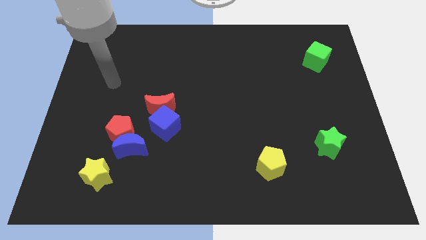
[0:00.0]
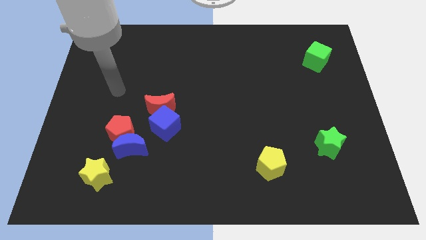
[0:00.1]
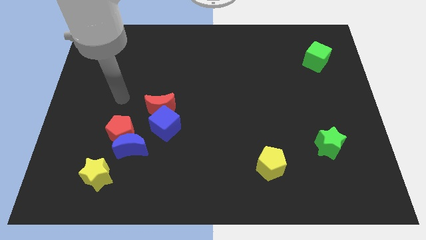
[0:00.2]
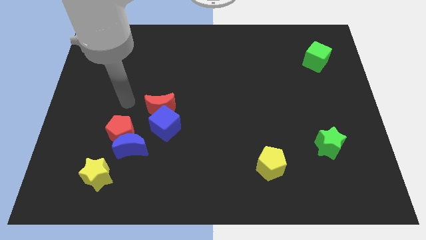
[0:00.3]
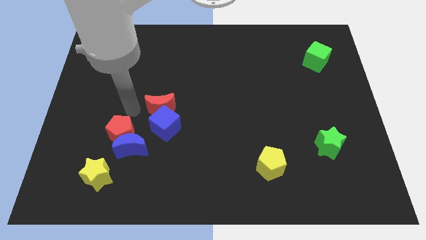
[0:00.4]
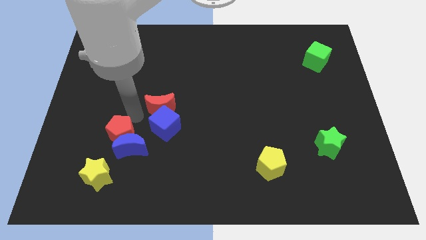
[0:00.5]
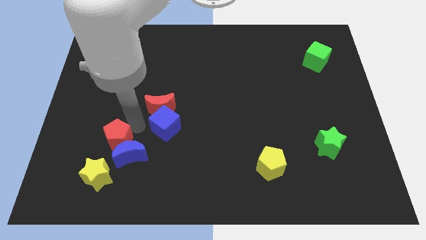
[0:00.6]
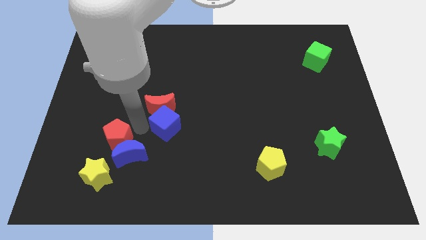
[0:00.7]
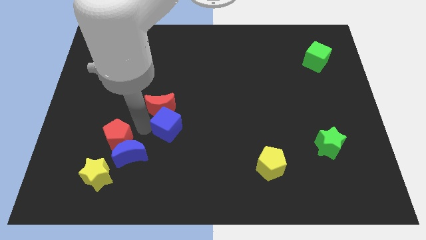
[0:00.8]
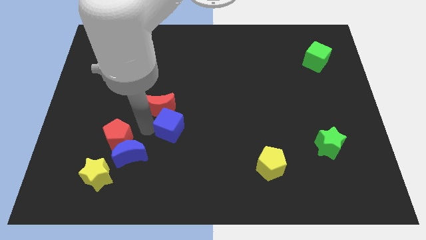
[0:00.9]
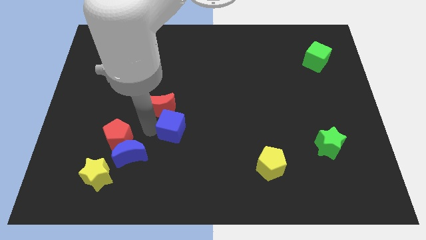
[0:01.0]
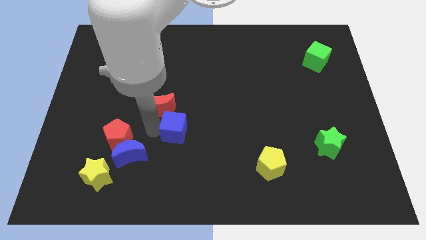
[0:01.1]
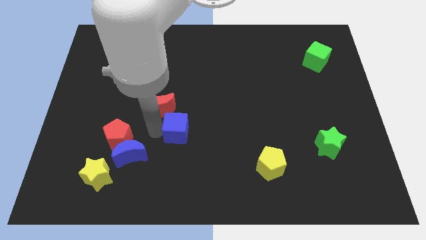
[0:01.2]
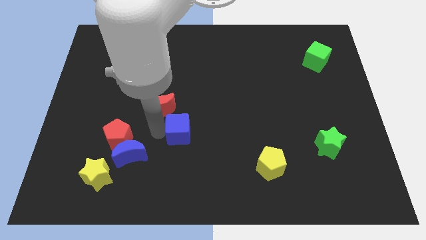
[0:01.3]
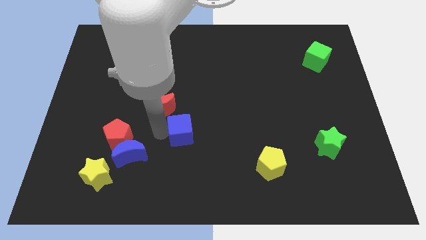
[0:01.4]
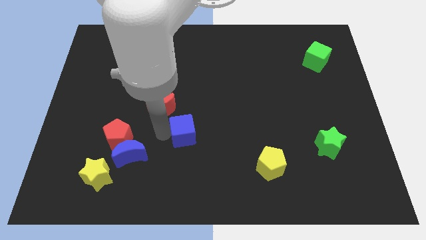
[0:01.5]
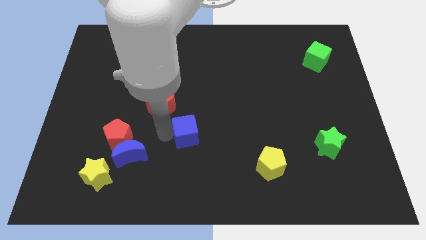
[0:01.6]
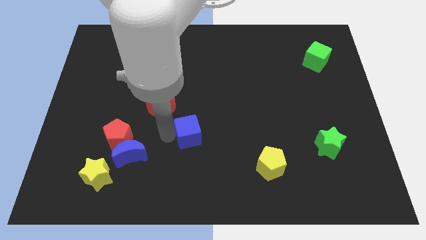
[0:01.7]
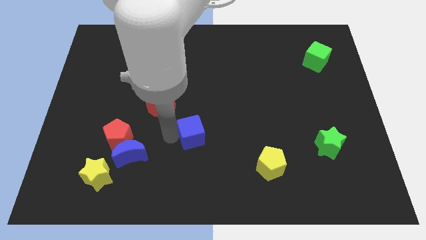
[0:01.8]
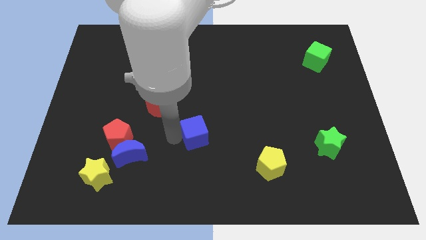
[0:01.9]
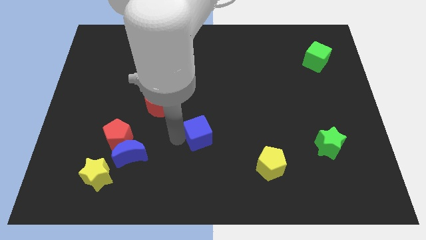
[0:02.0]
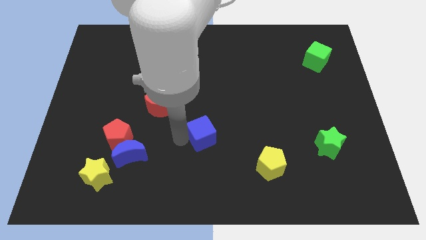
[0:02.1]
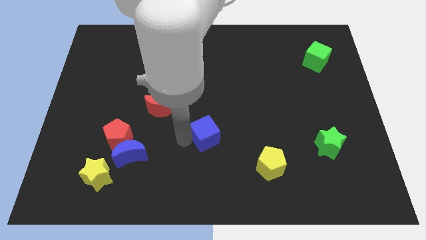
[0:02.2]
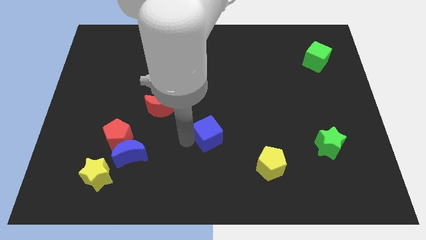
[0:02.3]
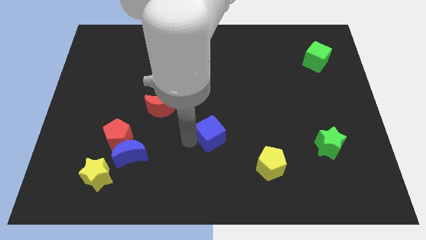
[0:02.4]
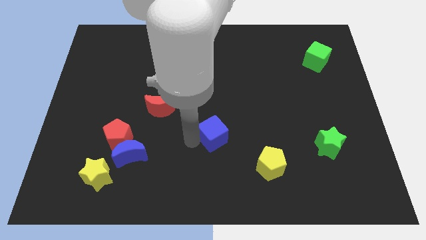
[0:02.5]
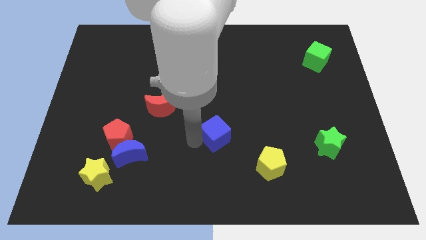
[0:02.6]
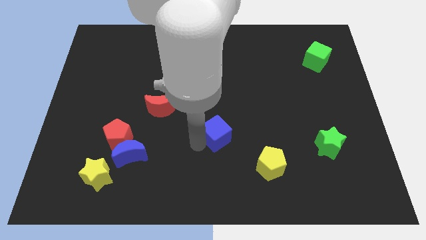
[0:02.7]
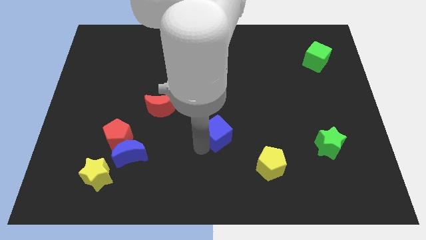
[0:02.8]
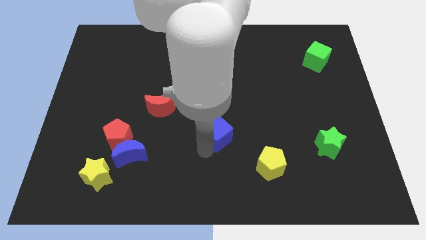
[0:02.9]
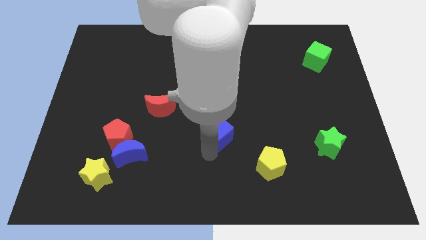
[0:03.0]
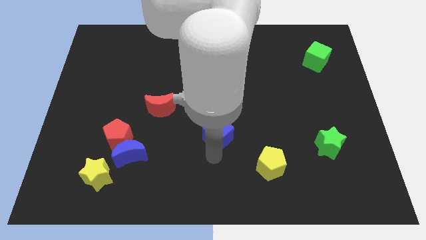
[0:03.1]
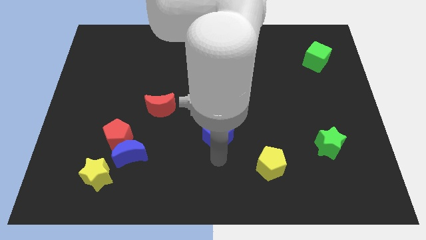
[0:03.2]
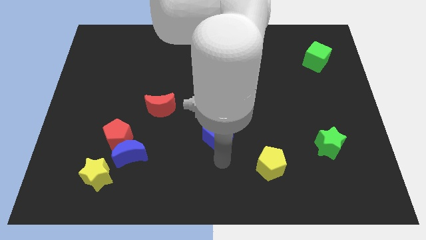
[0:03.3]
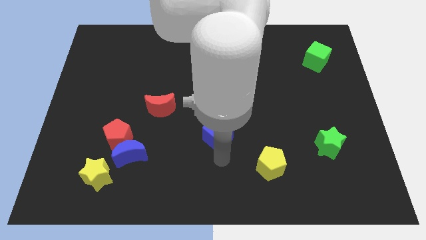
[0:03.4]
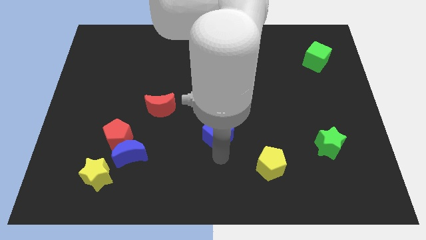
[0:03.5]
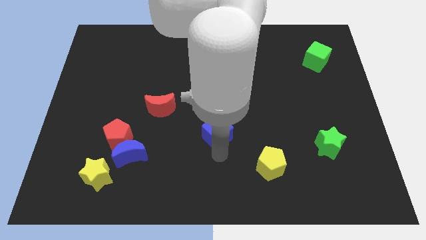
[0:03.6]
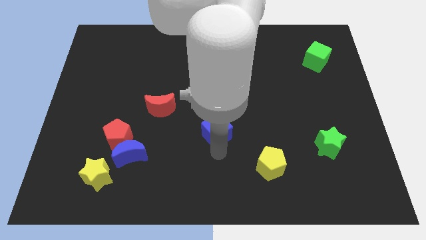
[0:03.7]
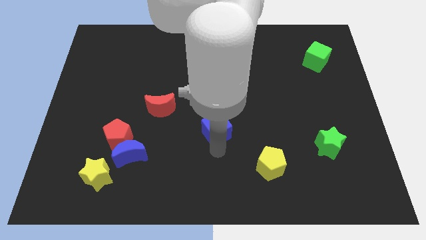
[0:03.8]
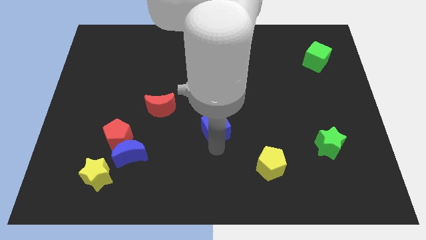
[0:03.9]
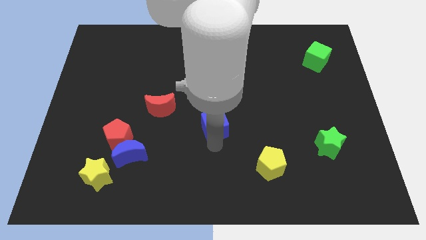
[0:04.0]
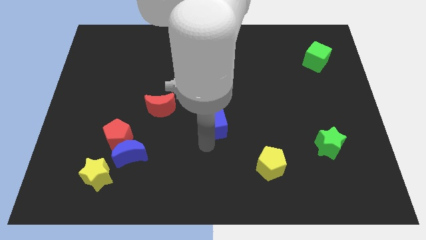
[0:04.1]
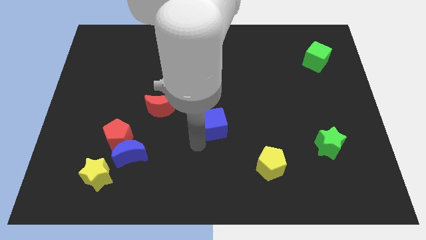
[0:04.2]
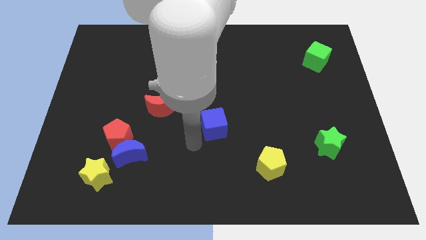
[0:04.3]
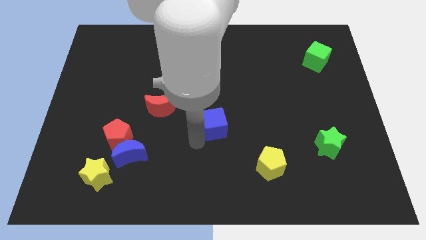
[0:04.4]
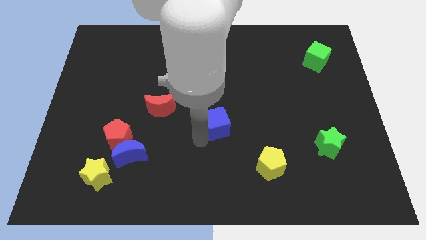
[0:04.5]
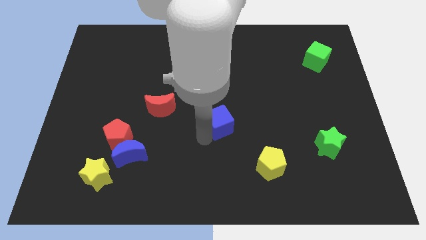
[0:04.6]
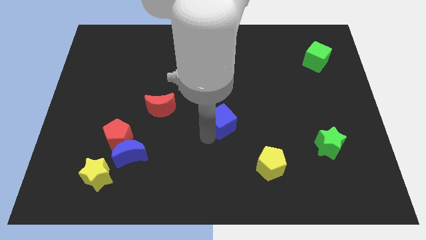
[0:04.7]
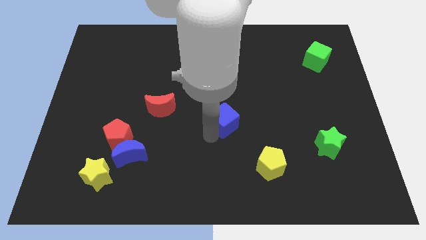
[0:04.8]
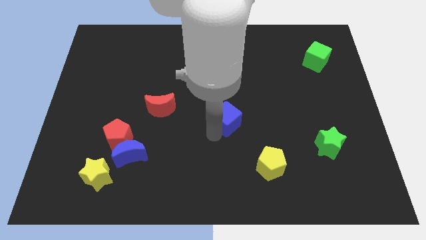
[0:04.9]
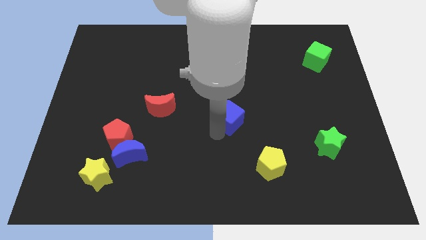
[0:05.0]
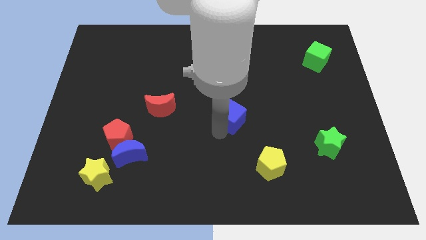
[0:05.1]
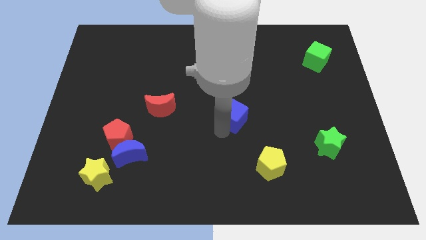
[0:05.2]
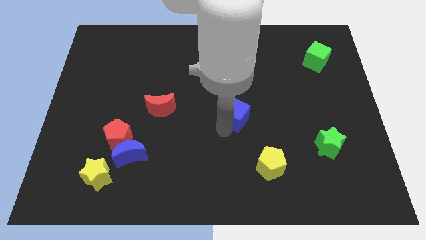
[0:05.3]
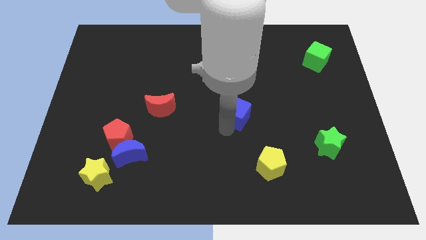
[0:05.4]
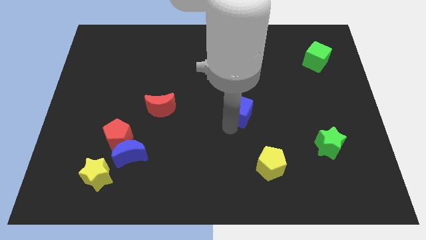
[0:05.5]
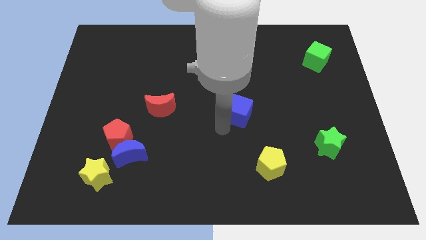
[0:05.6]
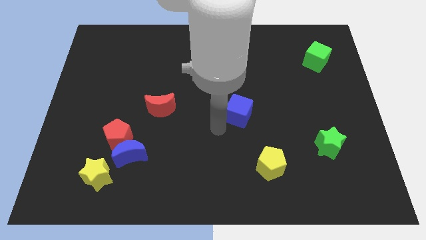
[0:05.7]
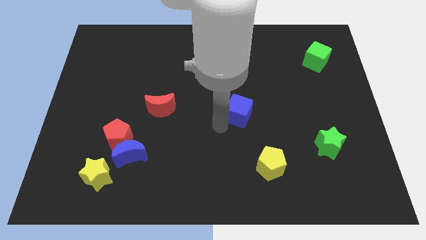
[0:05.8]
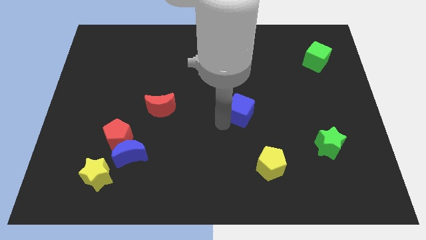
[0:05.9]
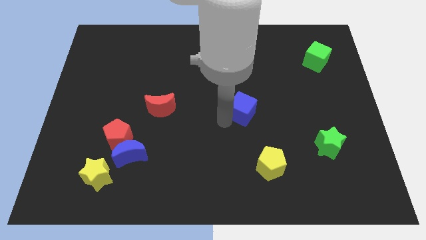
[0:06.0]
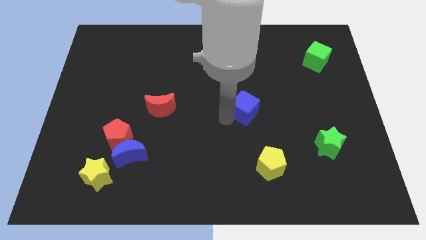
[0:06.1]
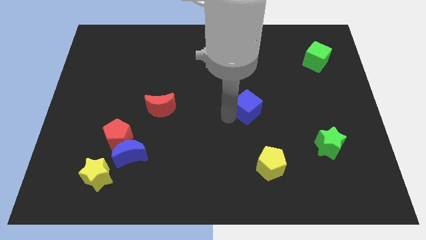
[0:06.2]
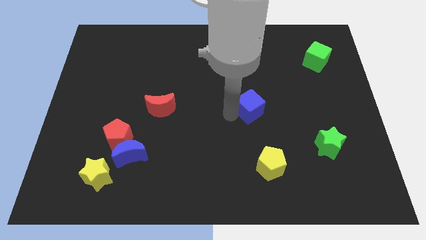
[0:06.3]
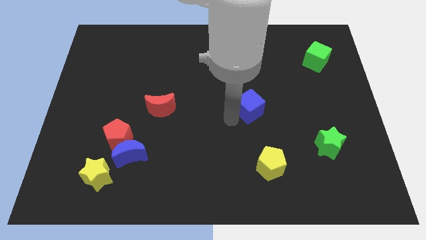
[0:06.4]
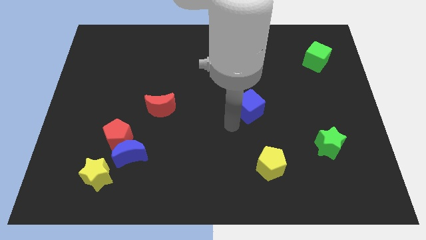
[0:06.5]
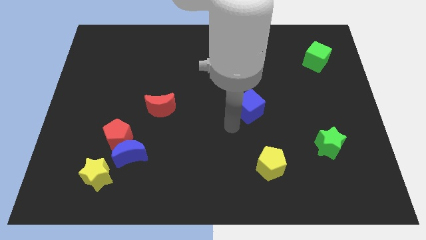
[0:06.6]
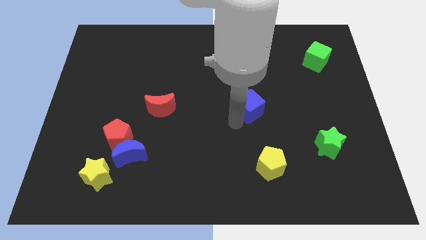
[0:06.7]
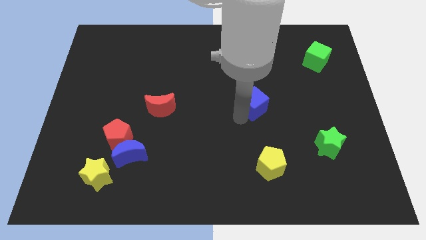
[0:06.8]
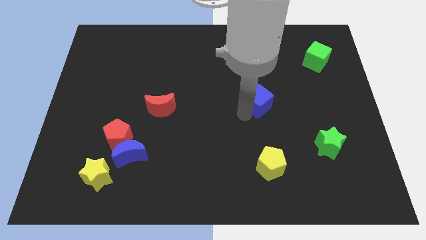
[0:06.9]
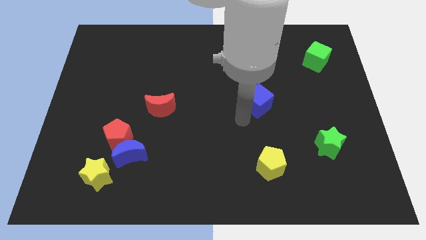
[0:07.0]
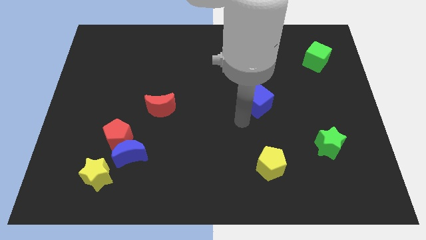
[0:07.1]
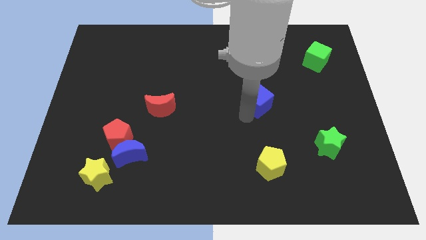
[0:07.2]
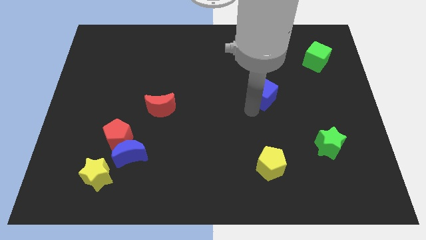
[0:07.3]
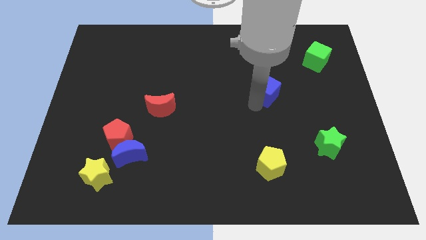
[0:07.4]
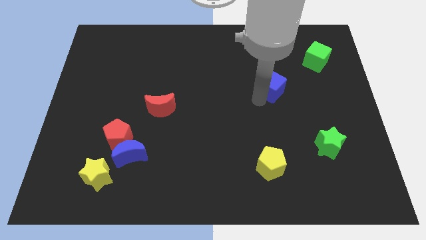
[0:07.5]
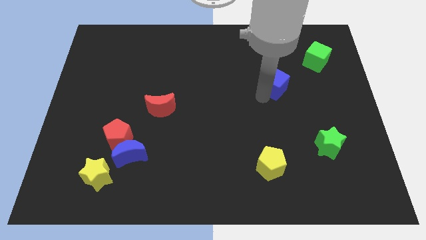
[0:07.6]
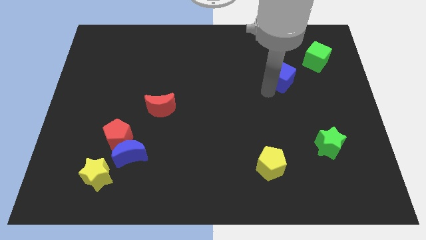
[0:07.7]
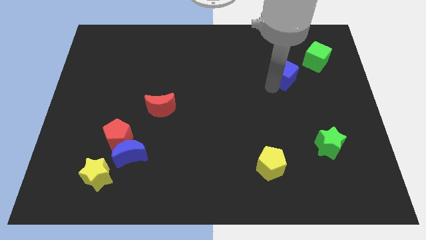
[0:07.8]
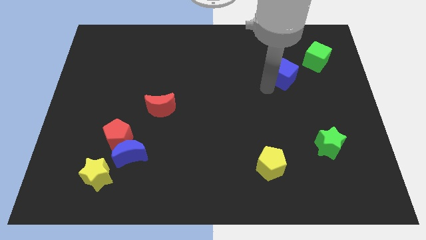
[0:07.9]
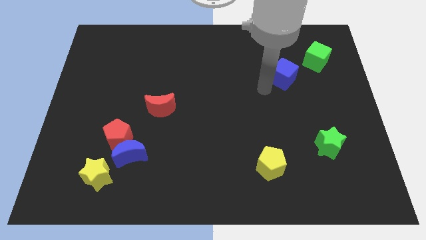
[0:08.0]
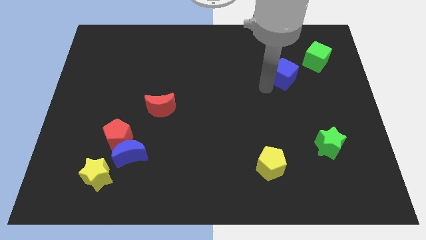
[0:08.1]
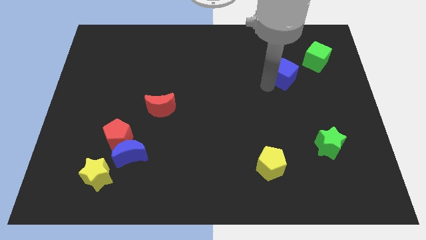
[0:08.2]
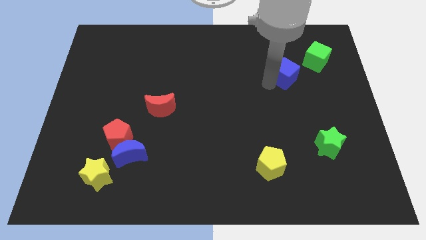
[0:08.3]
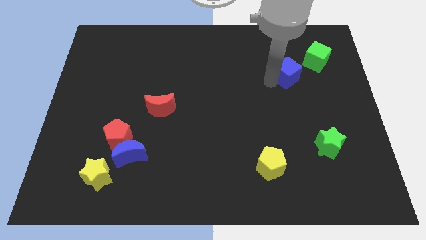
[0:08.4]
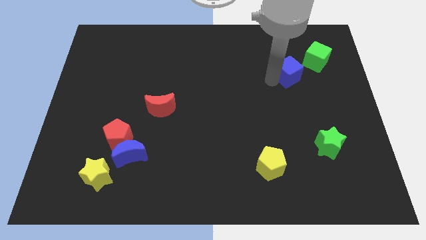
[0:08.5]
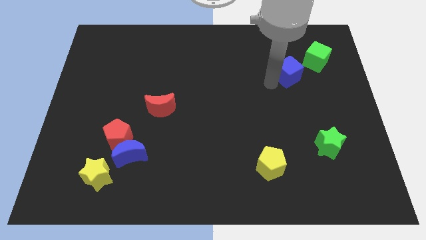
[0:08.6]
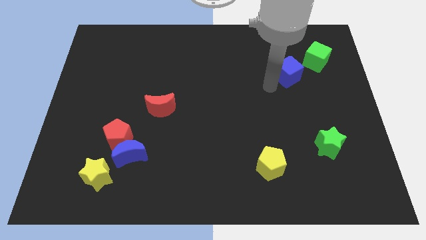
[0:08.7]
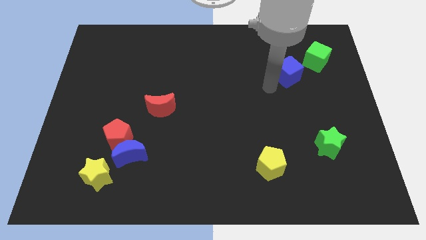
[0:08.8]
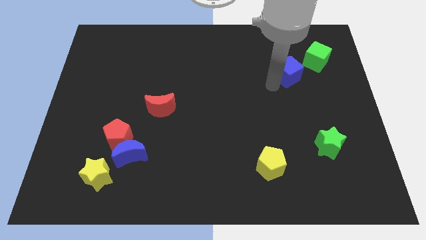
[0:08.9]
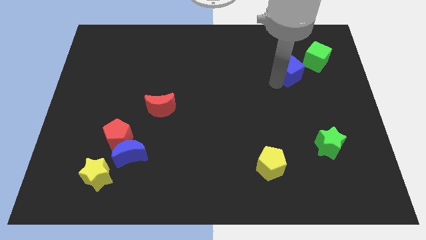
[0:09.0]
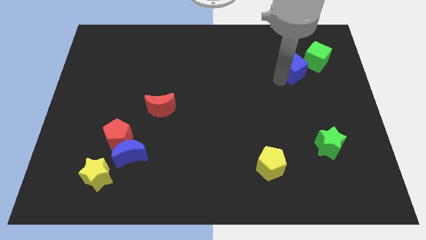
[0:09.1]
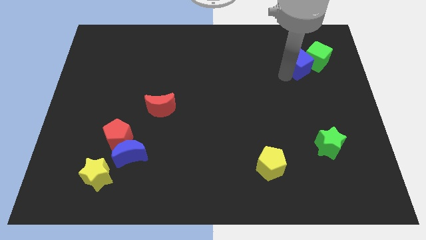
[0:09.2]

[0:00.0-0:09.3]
slide the blue cube to the green cube
